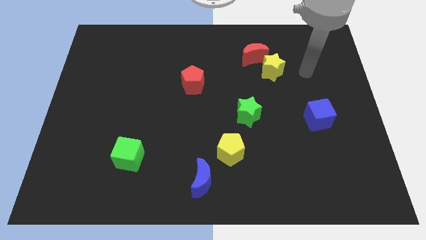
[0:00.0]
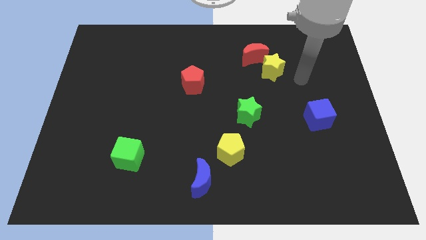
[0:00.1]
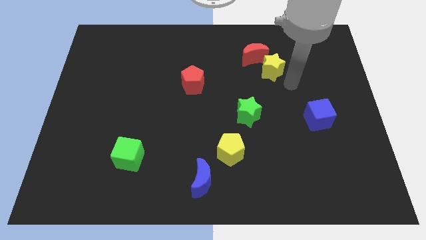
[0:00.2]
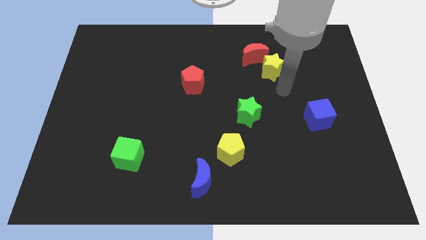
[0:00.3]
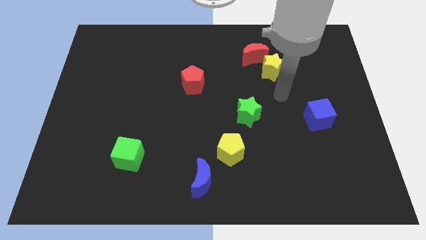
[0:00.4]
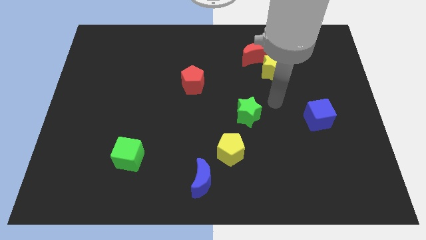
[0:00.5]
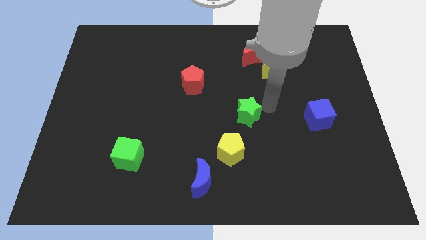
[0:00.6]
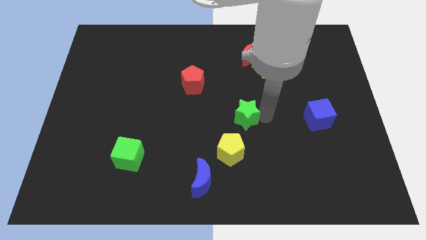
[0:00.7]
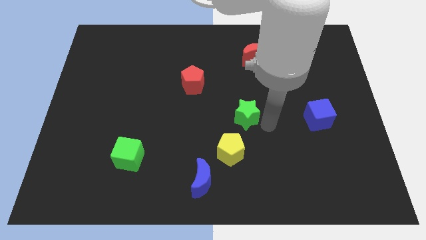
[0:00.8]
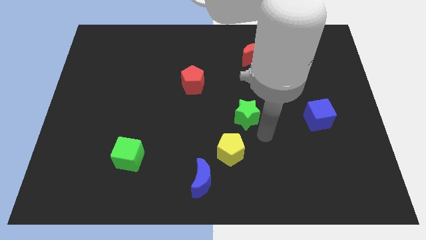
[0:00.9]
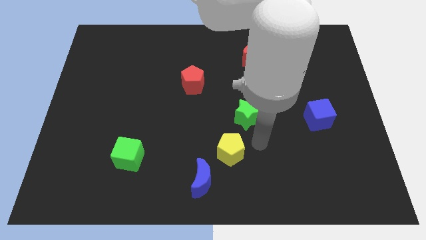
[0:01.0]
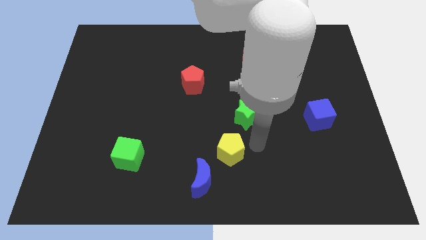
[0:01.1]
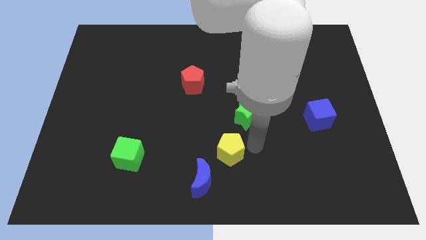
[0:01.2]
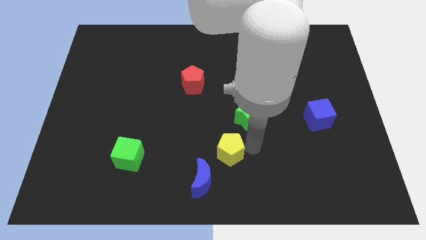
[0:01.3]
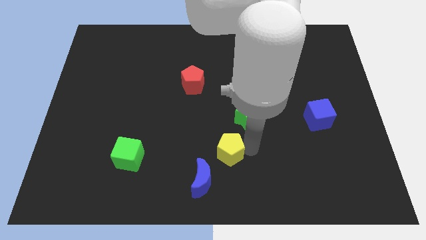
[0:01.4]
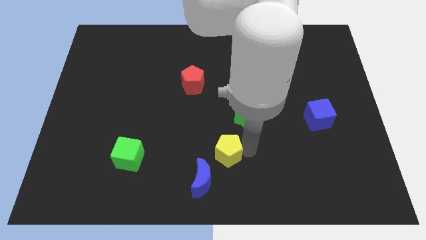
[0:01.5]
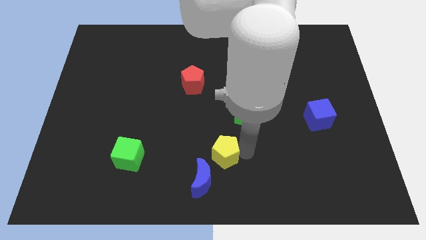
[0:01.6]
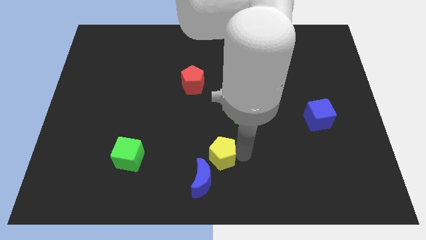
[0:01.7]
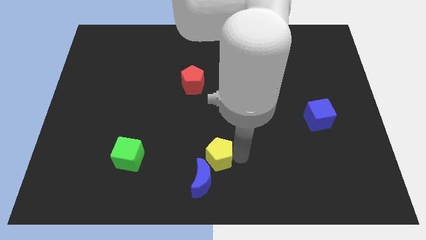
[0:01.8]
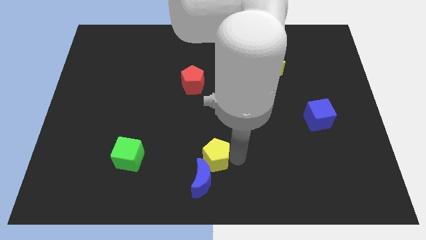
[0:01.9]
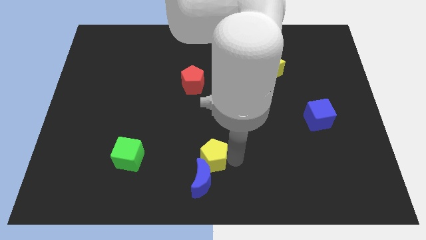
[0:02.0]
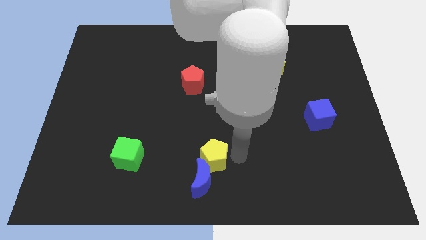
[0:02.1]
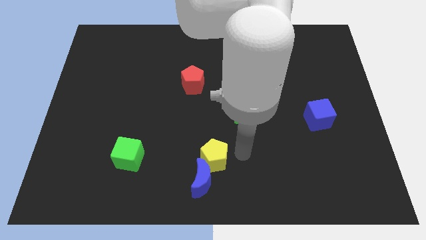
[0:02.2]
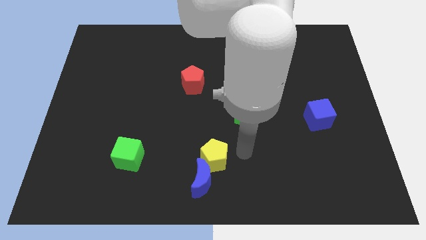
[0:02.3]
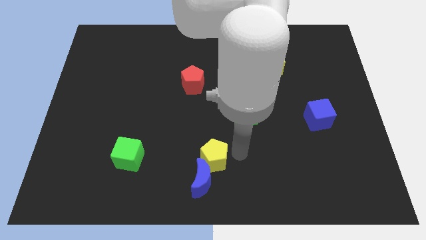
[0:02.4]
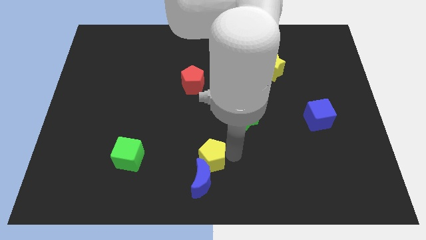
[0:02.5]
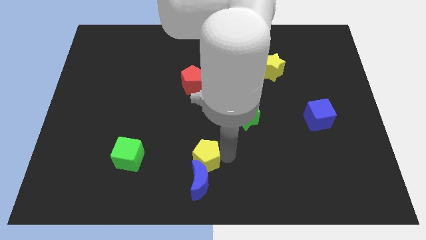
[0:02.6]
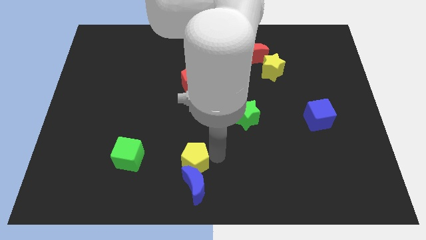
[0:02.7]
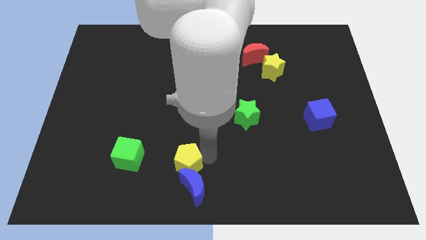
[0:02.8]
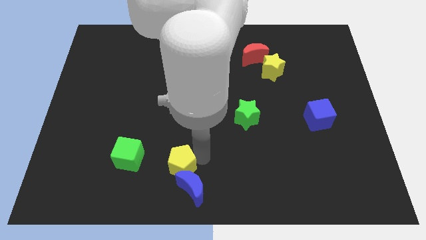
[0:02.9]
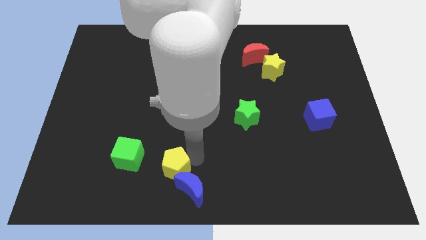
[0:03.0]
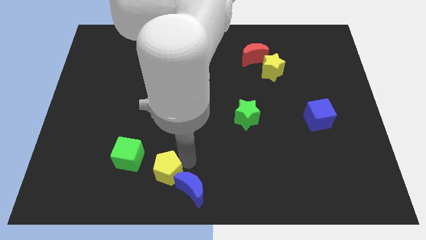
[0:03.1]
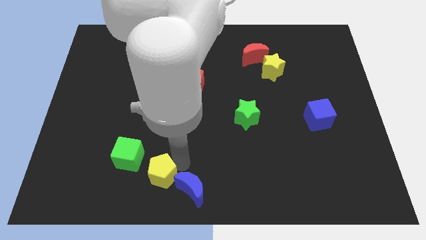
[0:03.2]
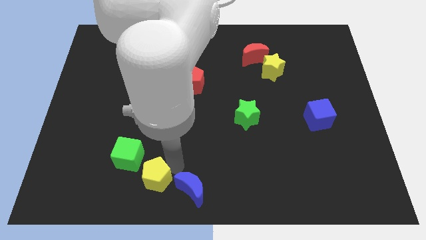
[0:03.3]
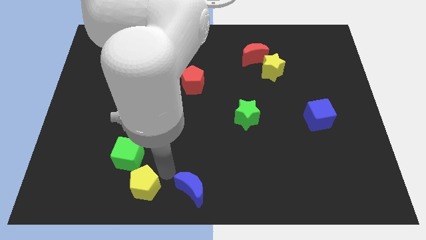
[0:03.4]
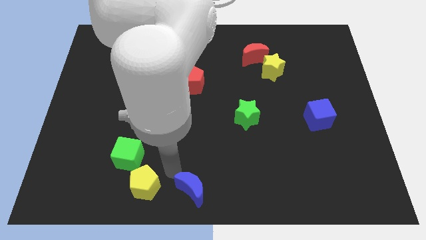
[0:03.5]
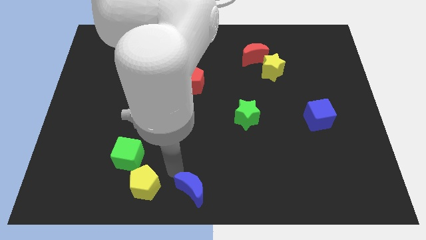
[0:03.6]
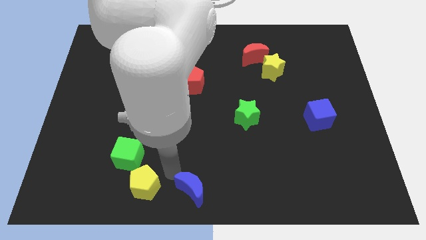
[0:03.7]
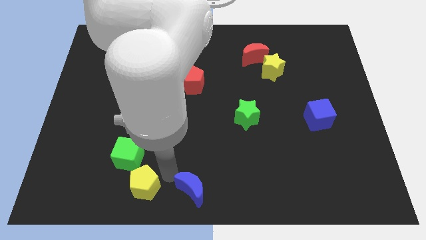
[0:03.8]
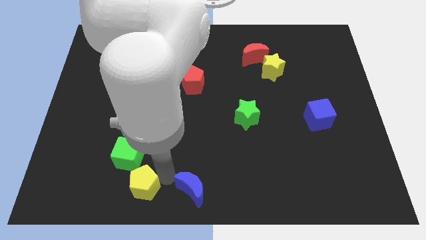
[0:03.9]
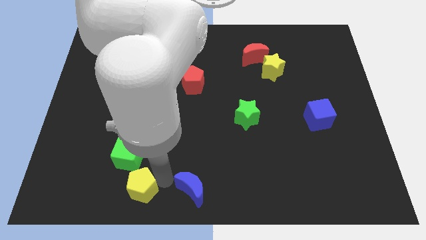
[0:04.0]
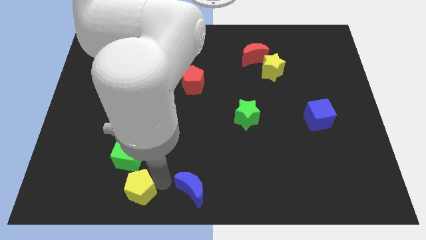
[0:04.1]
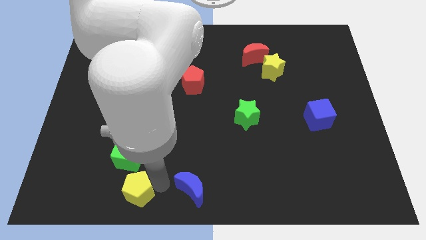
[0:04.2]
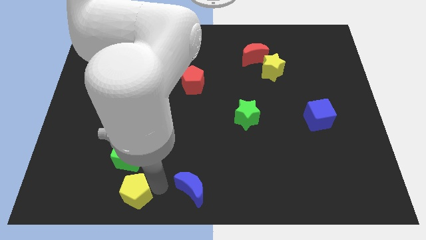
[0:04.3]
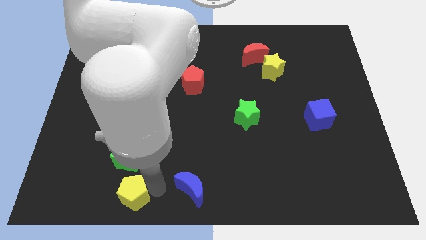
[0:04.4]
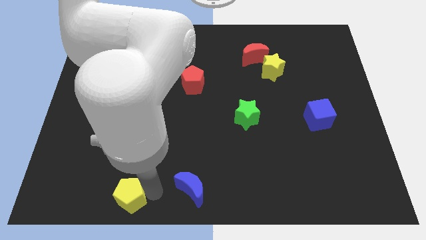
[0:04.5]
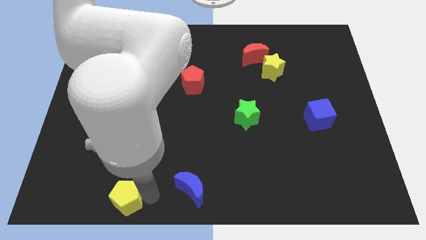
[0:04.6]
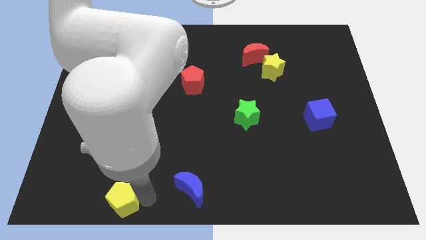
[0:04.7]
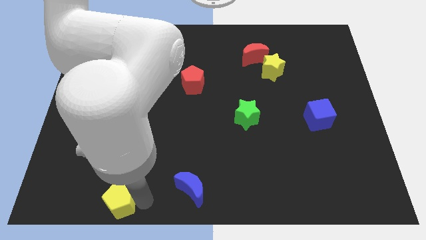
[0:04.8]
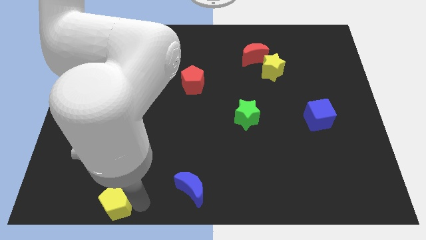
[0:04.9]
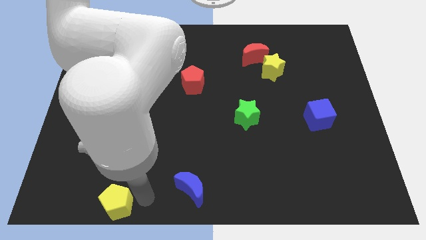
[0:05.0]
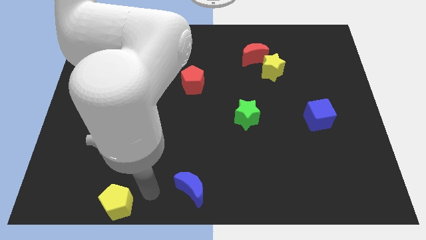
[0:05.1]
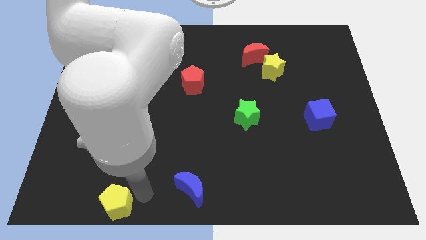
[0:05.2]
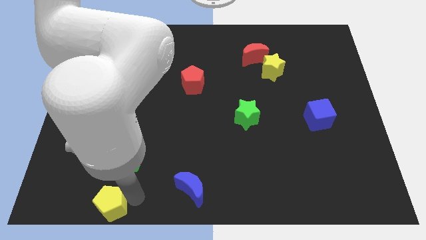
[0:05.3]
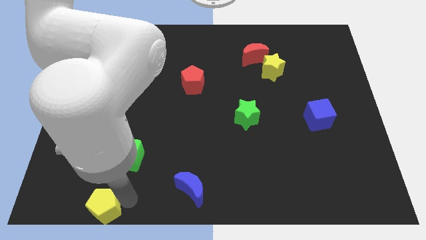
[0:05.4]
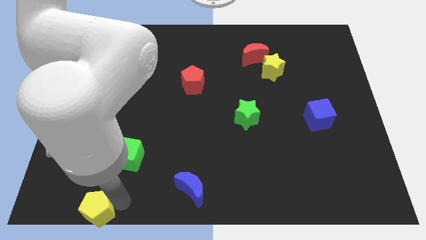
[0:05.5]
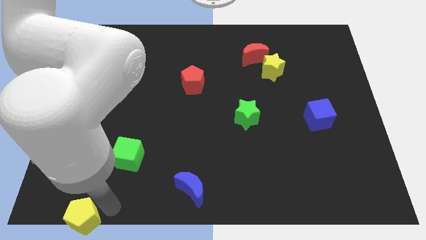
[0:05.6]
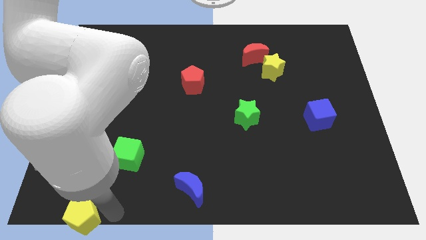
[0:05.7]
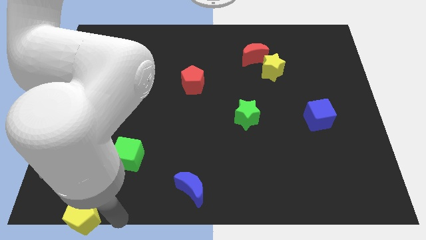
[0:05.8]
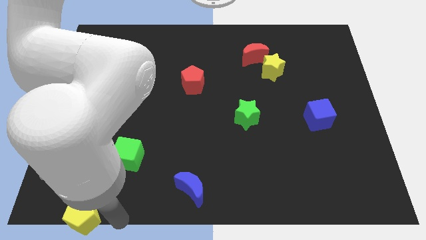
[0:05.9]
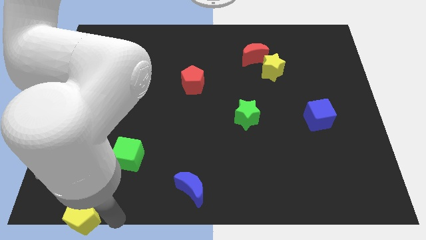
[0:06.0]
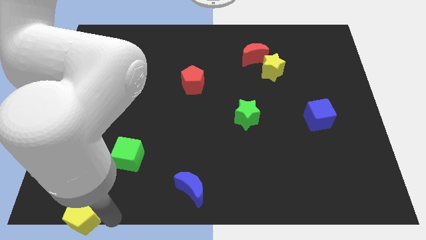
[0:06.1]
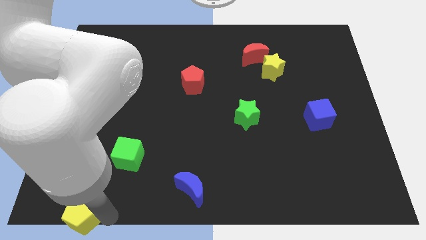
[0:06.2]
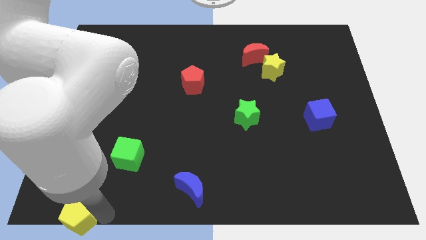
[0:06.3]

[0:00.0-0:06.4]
push the yellow pentagon to the bottom left

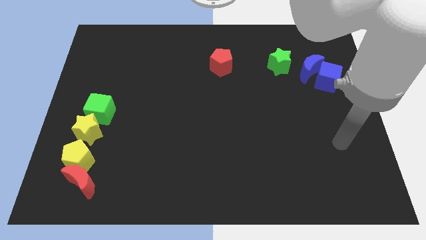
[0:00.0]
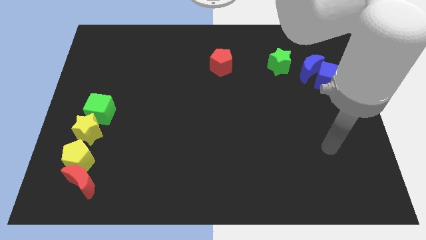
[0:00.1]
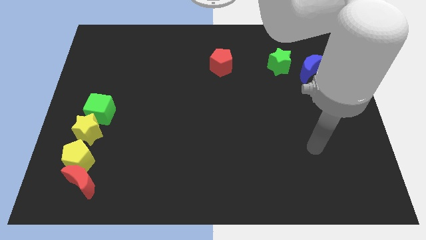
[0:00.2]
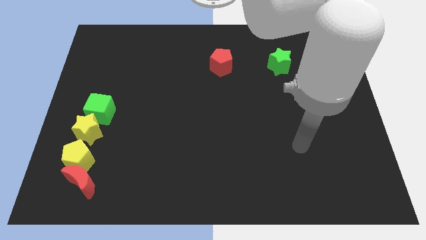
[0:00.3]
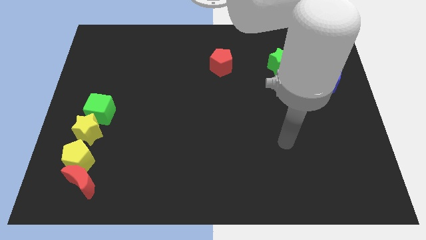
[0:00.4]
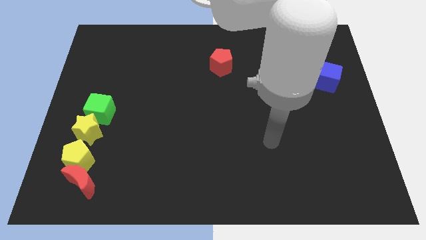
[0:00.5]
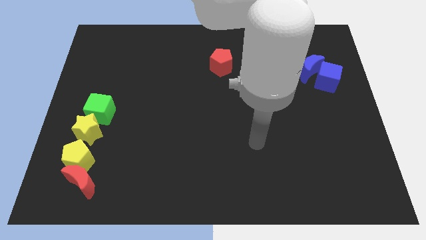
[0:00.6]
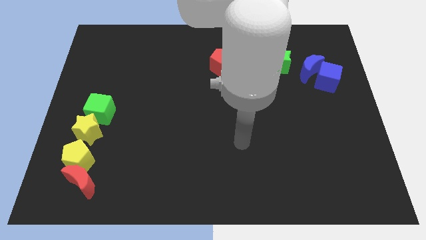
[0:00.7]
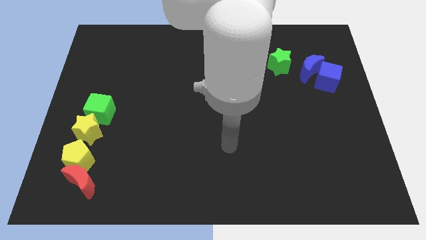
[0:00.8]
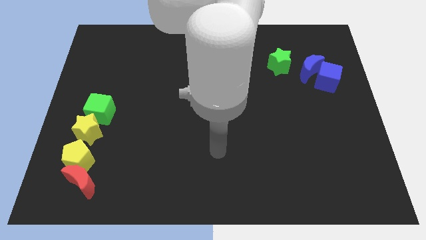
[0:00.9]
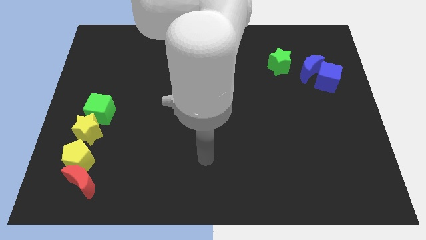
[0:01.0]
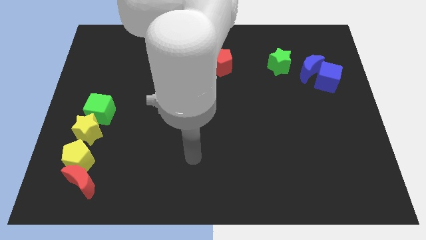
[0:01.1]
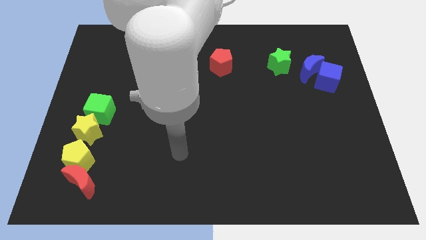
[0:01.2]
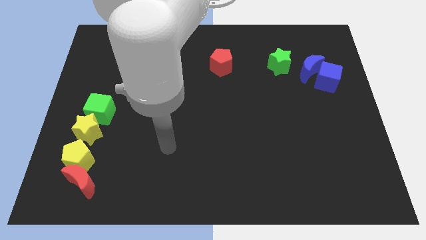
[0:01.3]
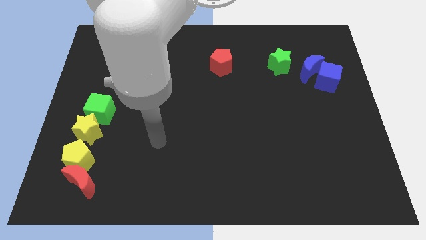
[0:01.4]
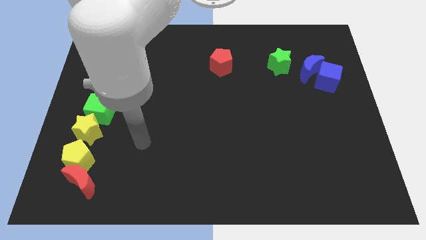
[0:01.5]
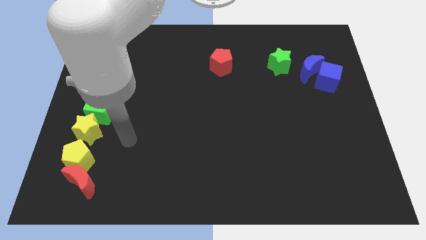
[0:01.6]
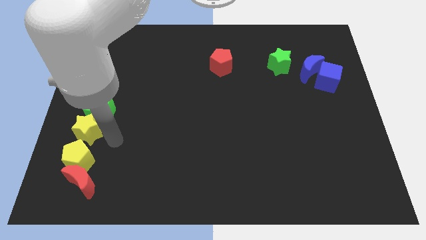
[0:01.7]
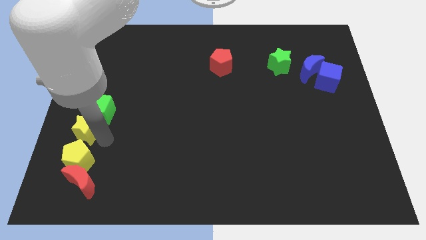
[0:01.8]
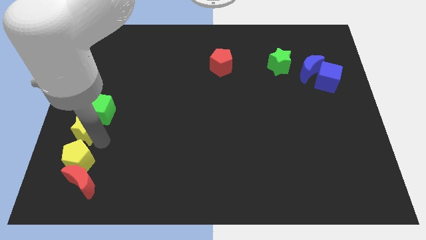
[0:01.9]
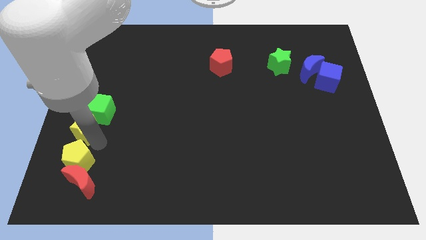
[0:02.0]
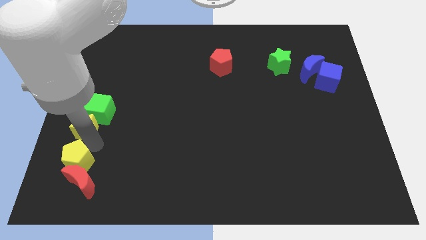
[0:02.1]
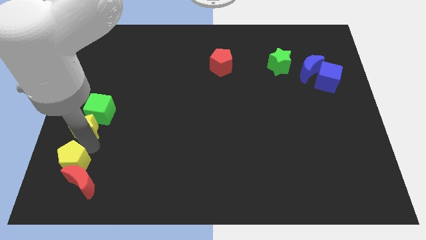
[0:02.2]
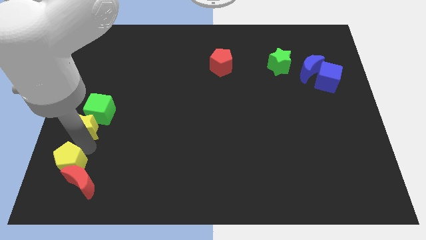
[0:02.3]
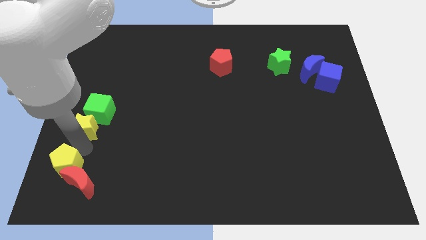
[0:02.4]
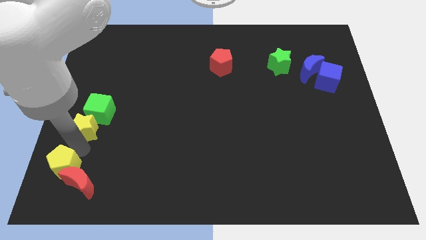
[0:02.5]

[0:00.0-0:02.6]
push the yellow pentagon to the bottom left corner
